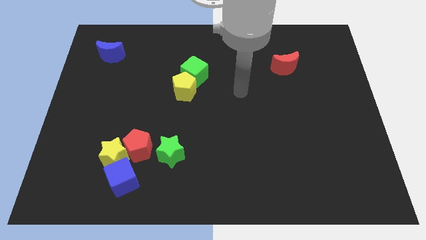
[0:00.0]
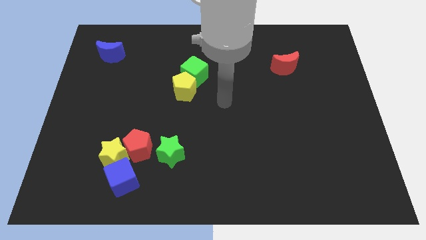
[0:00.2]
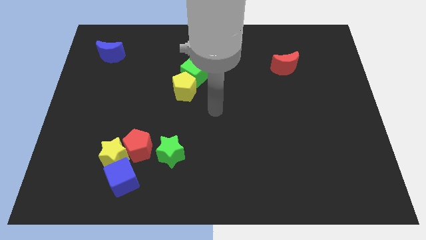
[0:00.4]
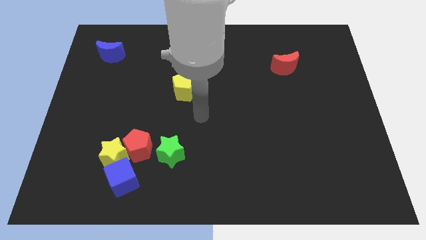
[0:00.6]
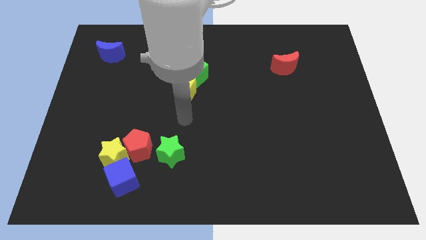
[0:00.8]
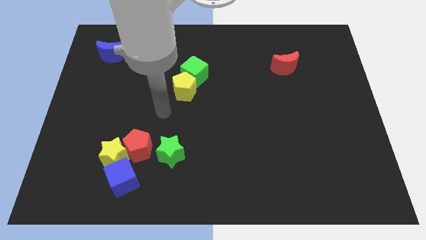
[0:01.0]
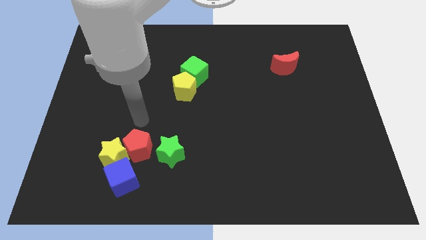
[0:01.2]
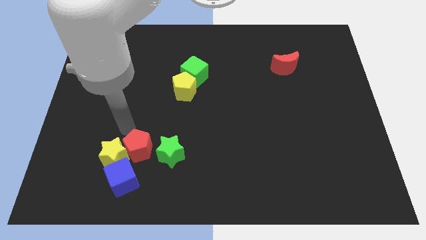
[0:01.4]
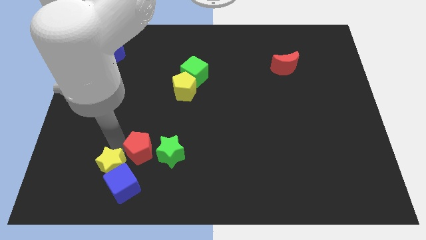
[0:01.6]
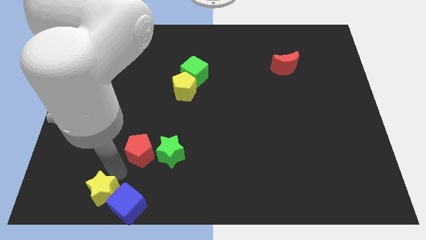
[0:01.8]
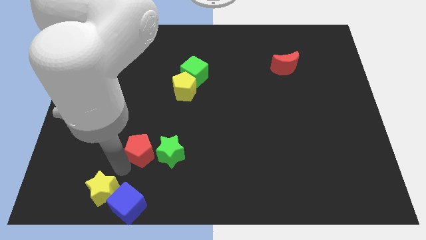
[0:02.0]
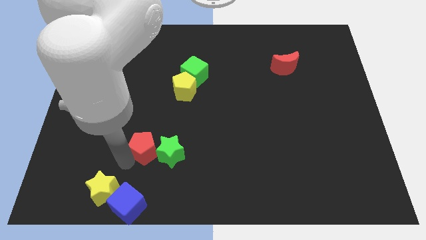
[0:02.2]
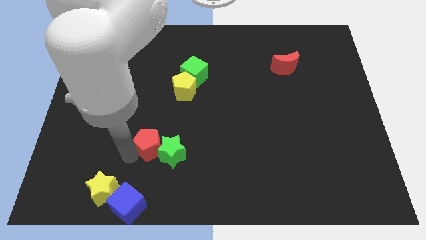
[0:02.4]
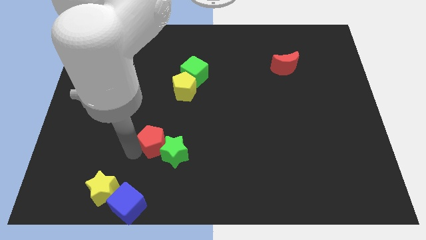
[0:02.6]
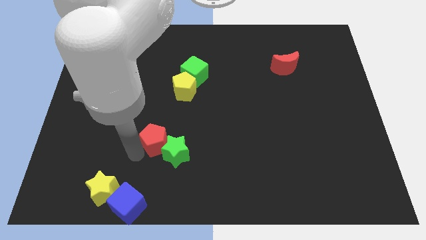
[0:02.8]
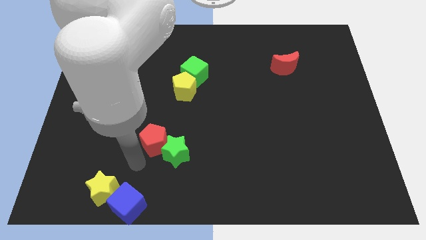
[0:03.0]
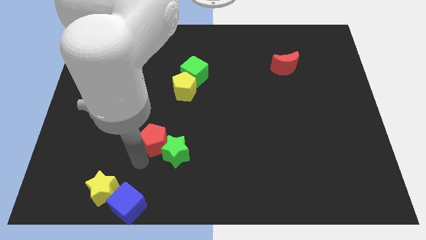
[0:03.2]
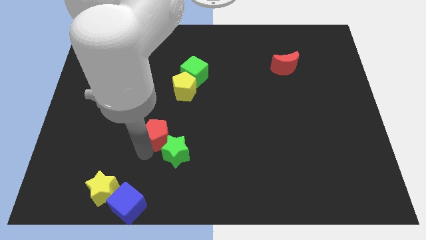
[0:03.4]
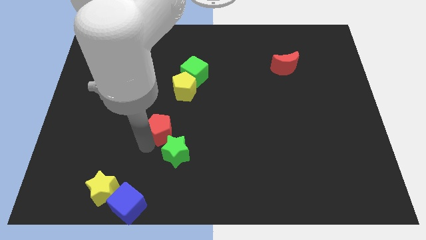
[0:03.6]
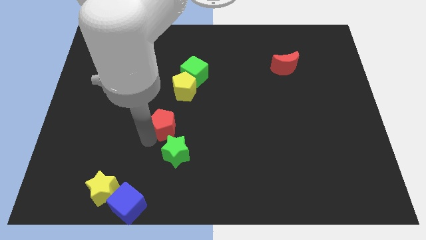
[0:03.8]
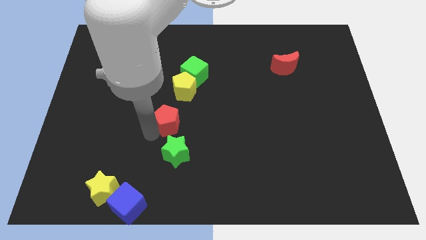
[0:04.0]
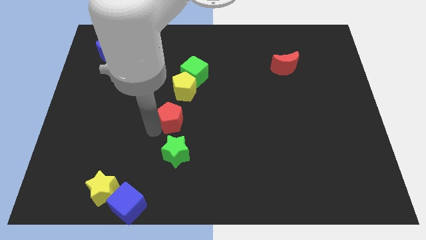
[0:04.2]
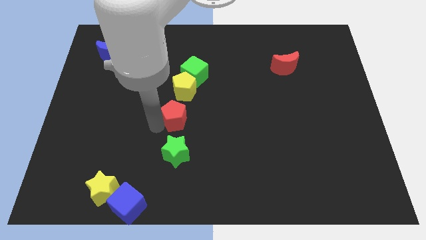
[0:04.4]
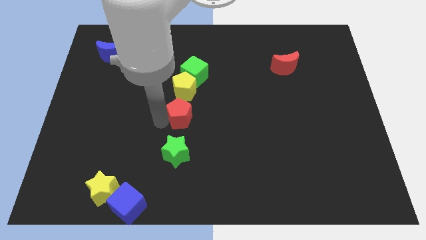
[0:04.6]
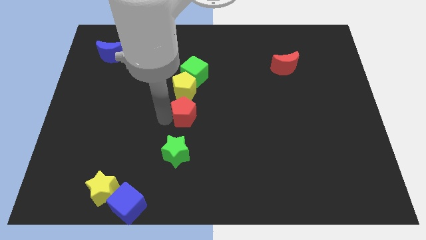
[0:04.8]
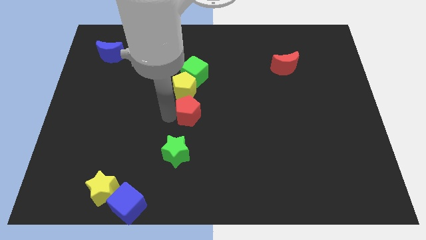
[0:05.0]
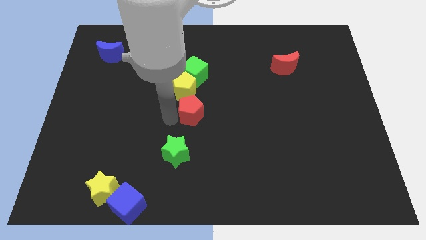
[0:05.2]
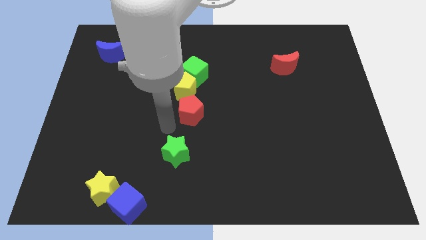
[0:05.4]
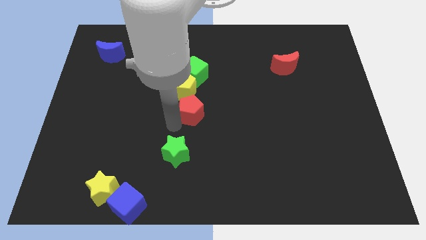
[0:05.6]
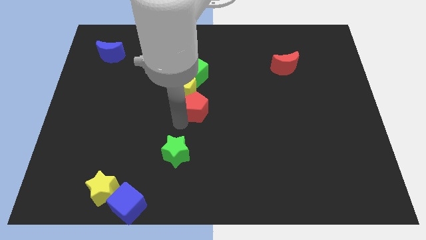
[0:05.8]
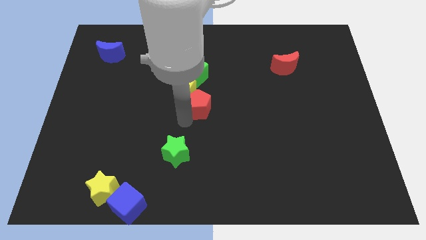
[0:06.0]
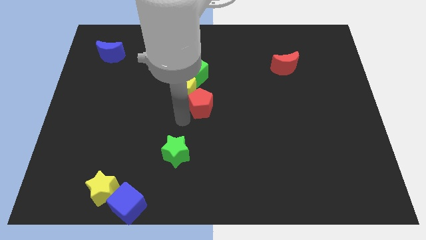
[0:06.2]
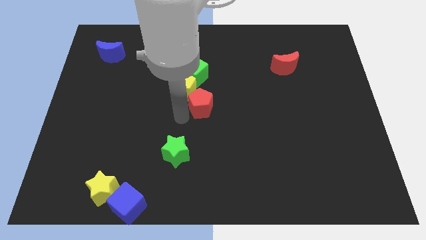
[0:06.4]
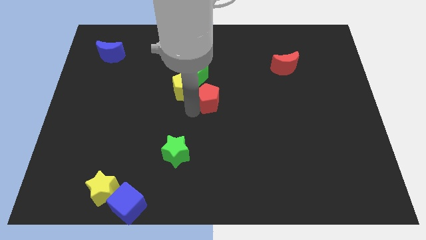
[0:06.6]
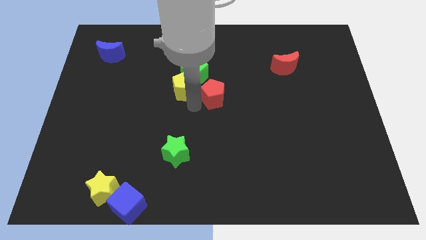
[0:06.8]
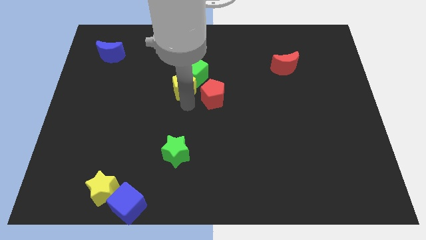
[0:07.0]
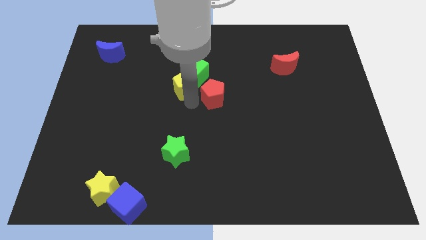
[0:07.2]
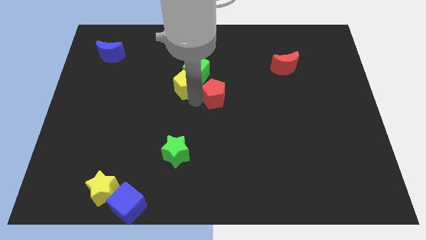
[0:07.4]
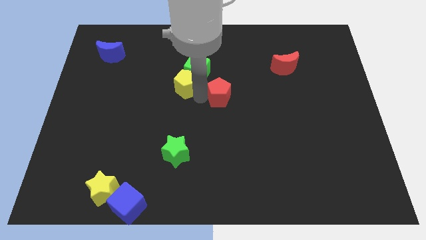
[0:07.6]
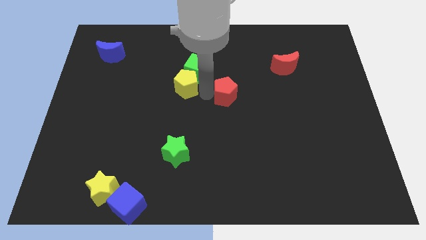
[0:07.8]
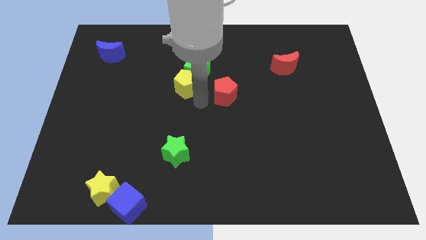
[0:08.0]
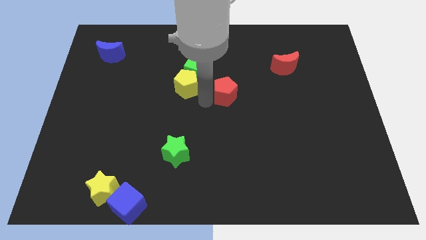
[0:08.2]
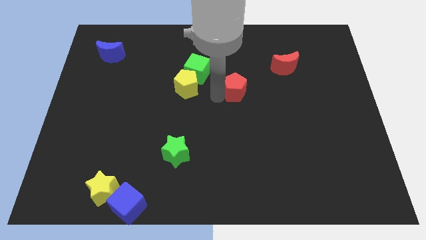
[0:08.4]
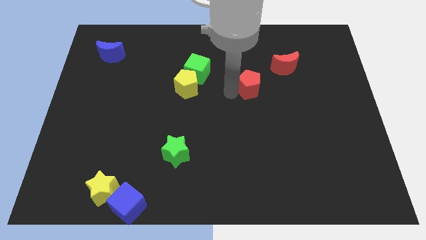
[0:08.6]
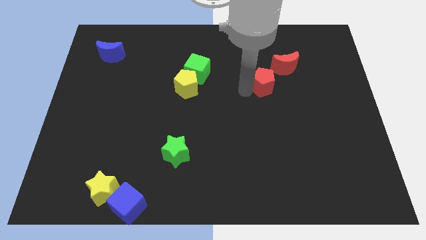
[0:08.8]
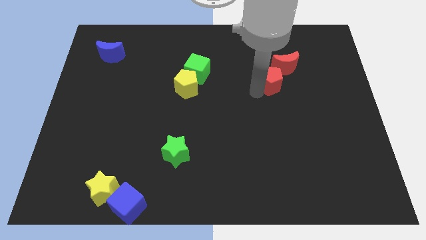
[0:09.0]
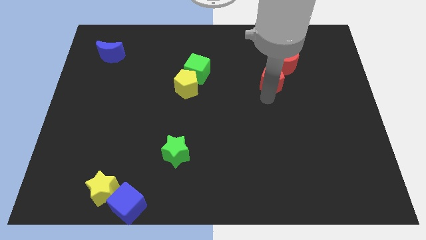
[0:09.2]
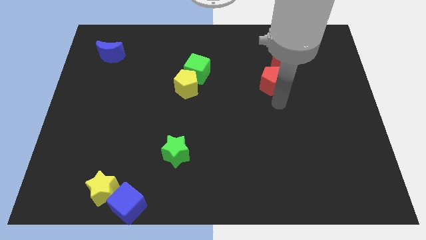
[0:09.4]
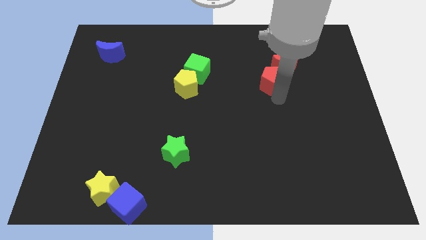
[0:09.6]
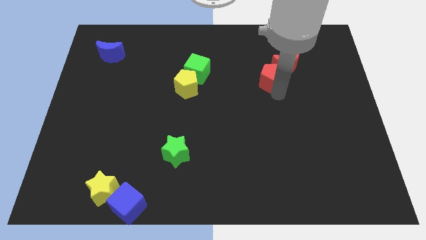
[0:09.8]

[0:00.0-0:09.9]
put the red pentagon to the red moon

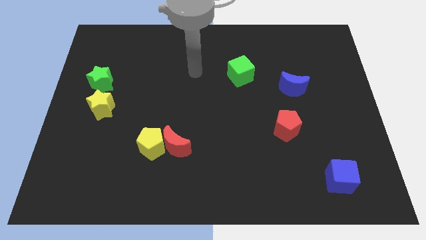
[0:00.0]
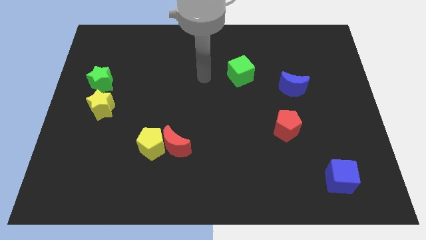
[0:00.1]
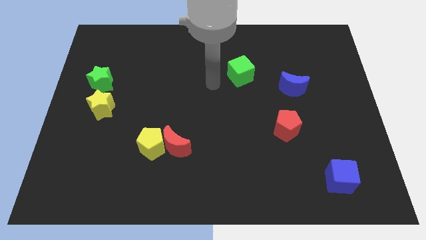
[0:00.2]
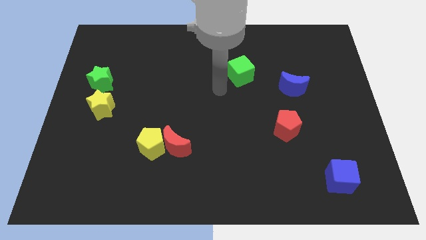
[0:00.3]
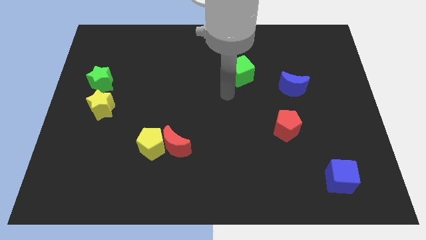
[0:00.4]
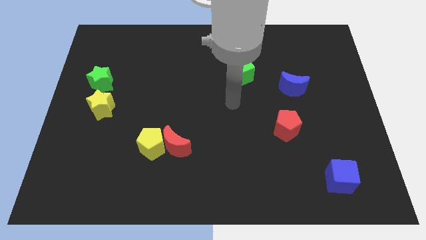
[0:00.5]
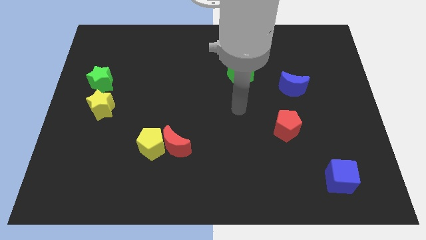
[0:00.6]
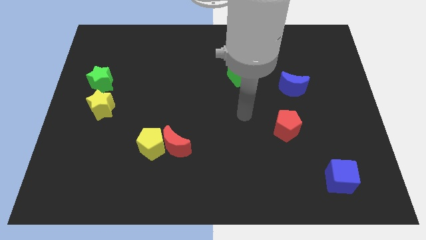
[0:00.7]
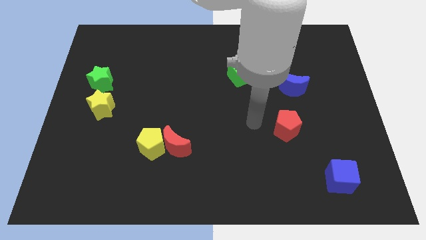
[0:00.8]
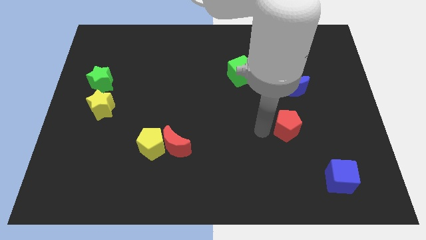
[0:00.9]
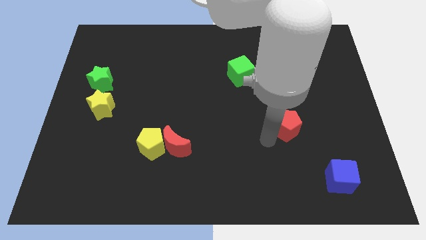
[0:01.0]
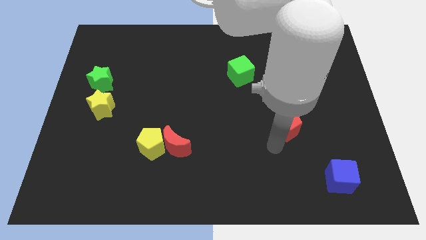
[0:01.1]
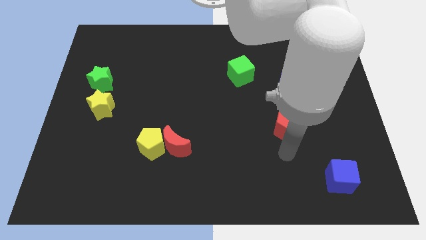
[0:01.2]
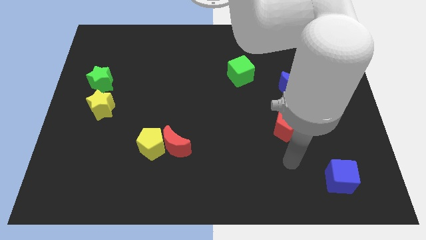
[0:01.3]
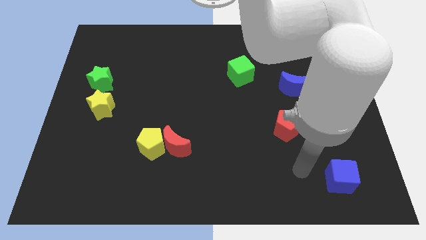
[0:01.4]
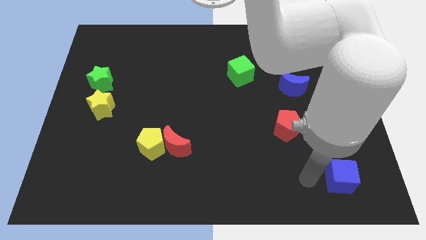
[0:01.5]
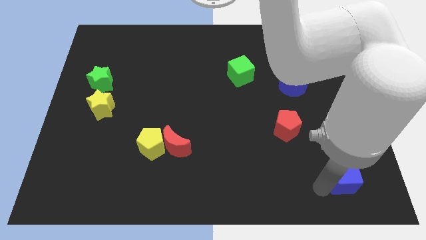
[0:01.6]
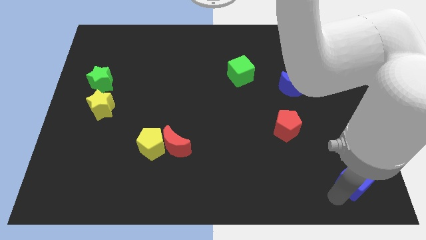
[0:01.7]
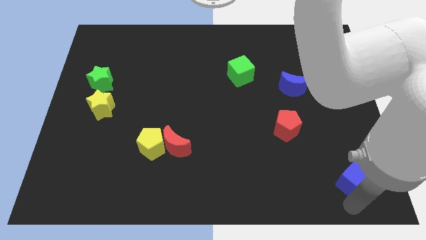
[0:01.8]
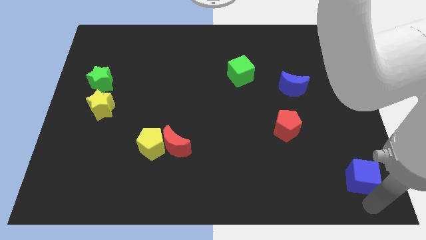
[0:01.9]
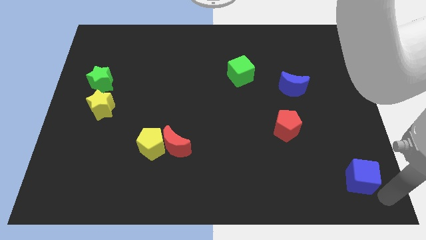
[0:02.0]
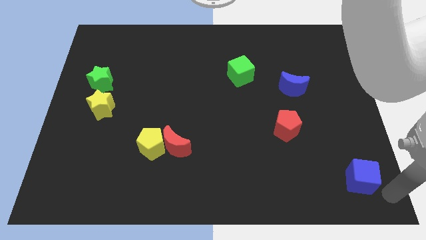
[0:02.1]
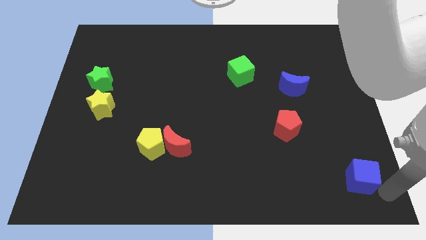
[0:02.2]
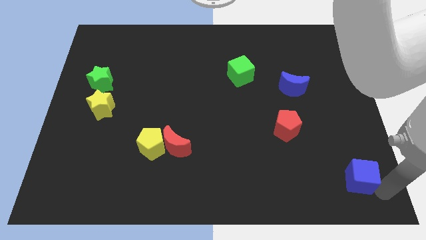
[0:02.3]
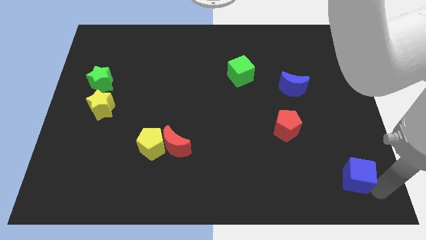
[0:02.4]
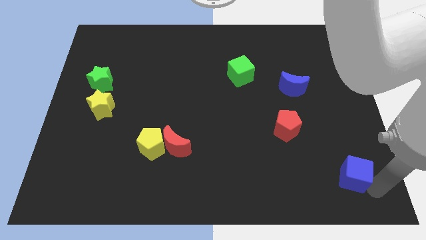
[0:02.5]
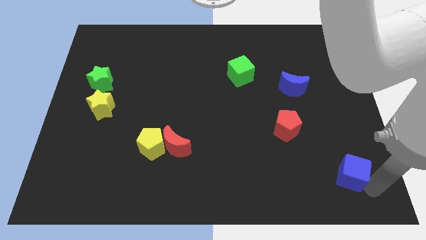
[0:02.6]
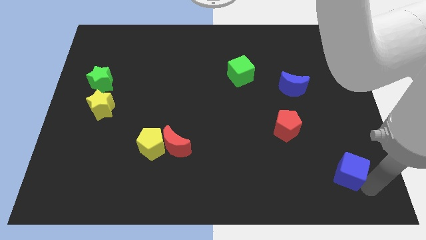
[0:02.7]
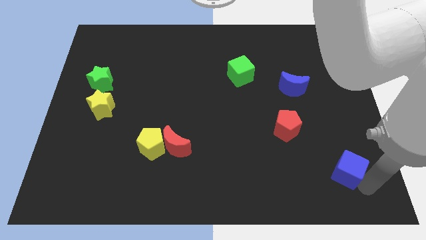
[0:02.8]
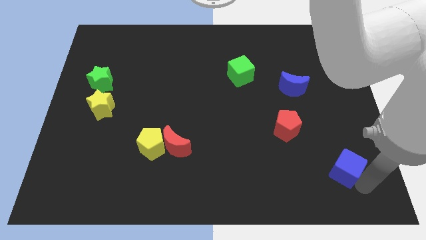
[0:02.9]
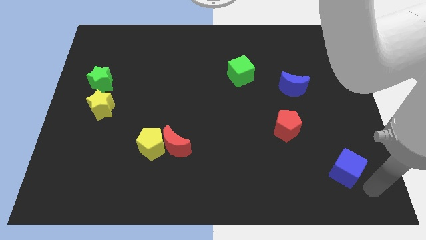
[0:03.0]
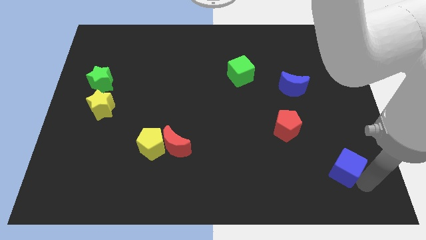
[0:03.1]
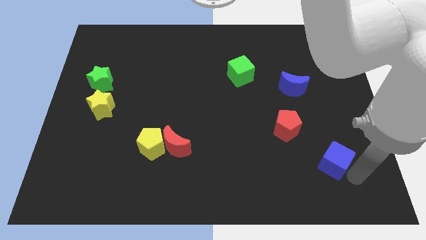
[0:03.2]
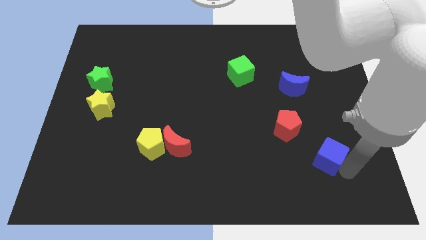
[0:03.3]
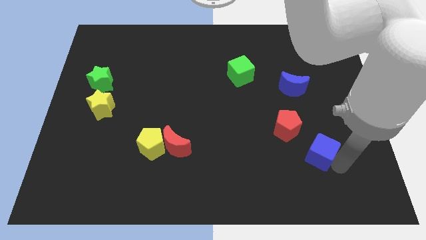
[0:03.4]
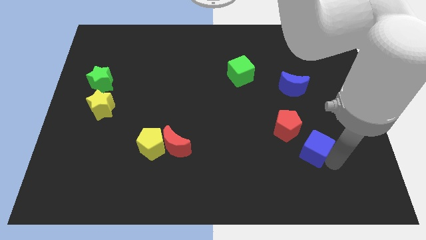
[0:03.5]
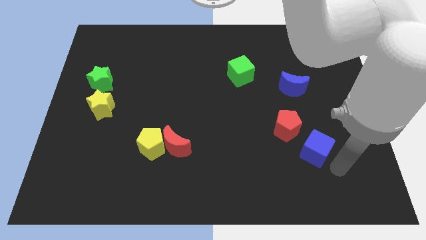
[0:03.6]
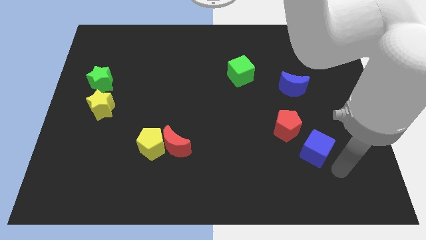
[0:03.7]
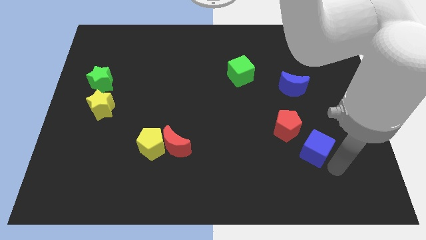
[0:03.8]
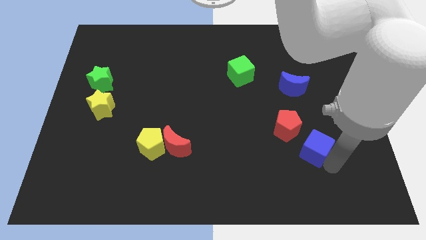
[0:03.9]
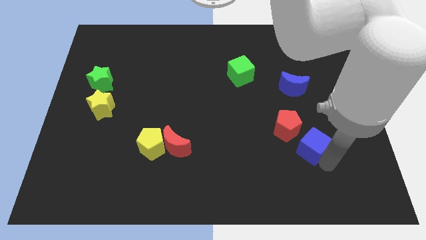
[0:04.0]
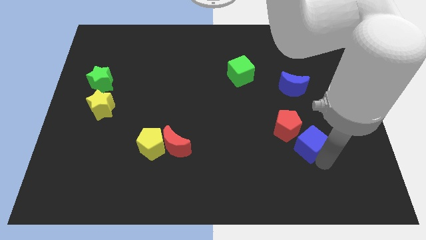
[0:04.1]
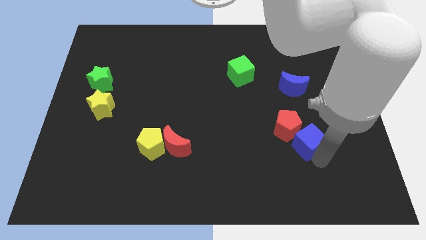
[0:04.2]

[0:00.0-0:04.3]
put the blue cube next to the red pentagon
